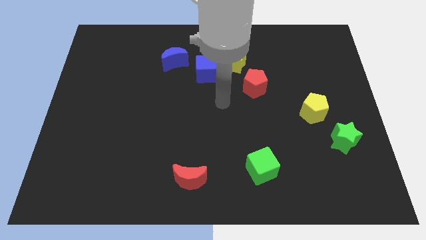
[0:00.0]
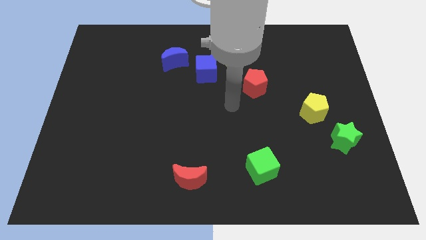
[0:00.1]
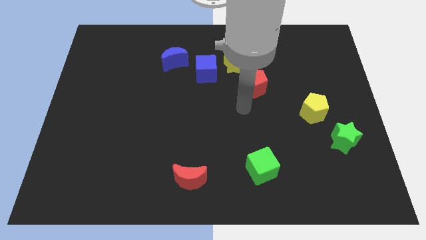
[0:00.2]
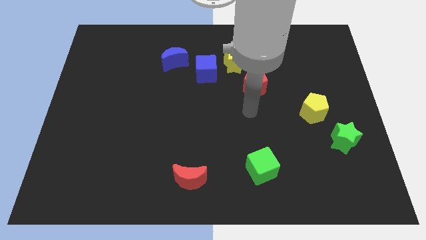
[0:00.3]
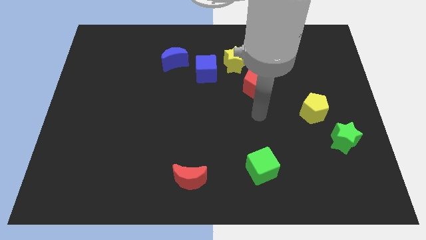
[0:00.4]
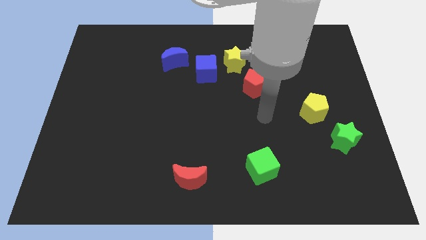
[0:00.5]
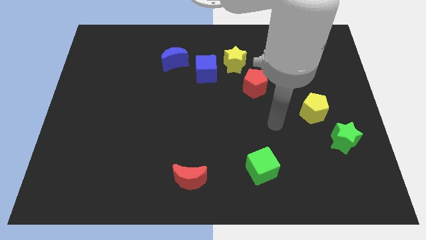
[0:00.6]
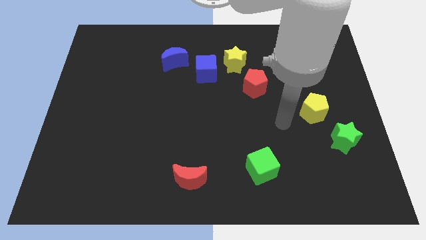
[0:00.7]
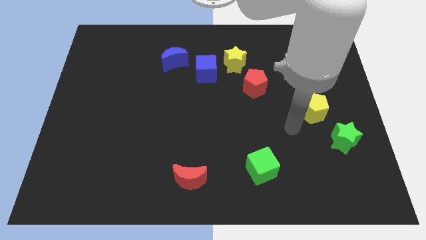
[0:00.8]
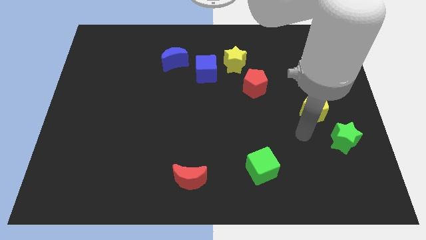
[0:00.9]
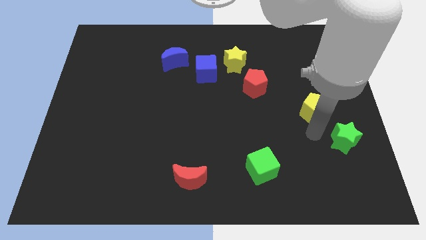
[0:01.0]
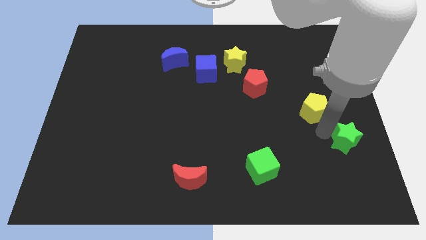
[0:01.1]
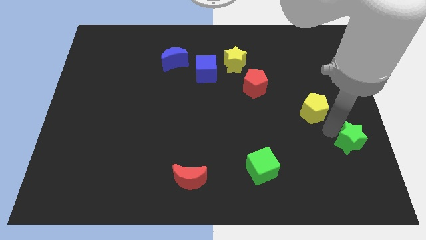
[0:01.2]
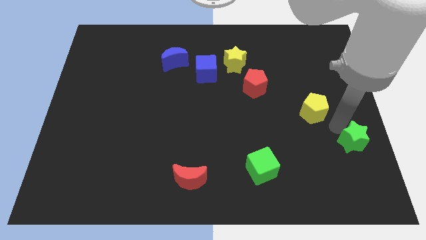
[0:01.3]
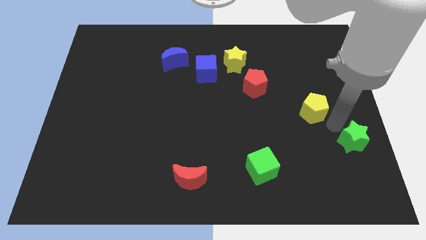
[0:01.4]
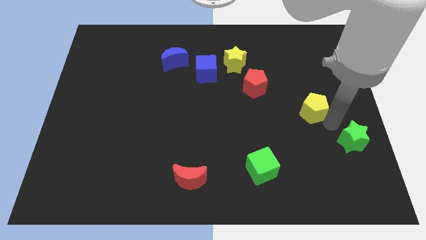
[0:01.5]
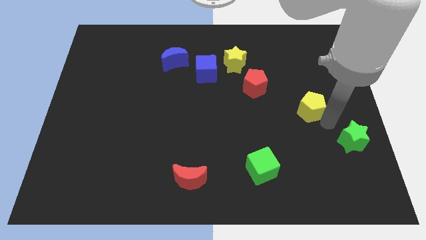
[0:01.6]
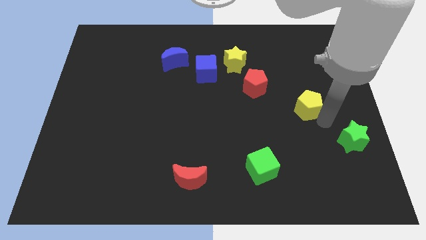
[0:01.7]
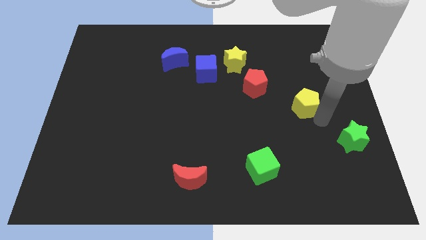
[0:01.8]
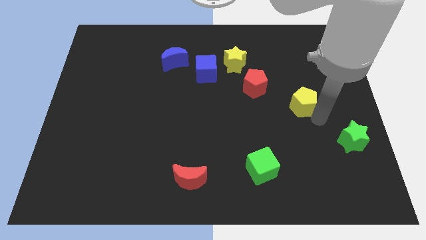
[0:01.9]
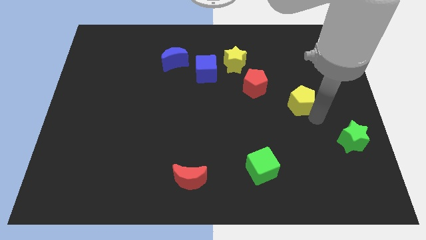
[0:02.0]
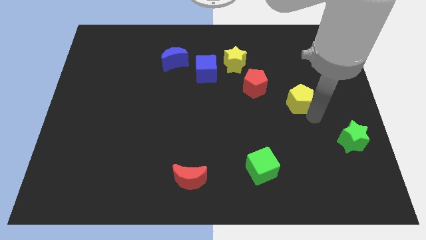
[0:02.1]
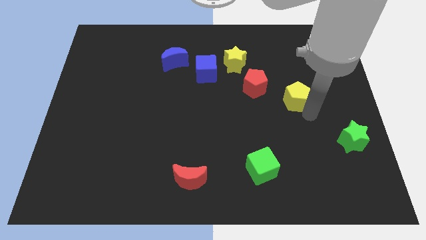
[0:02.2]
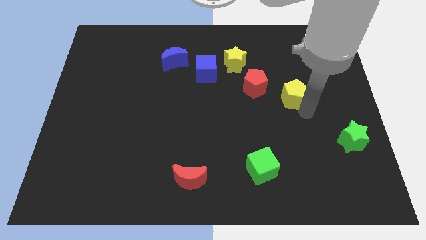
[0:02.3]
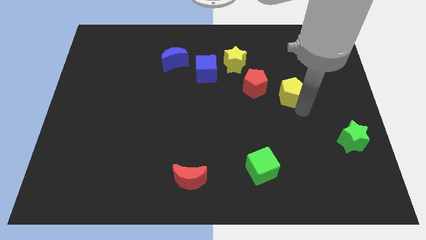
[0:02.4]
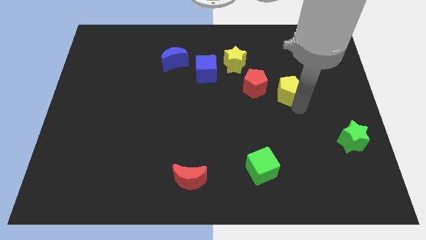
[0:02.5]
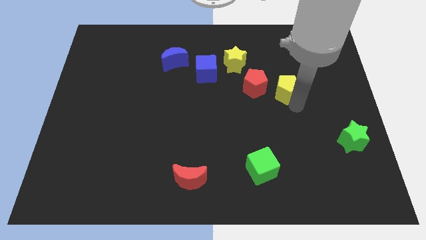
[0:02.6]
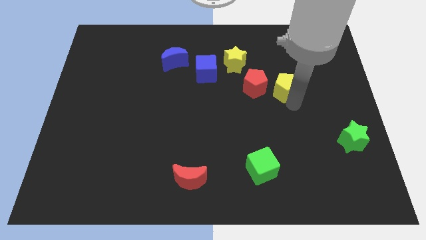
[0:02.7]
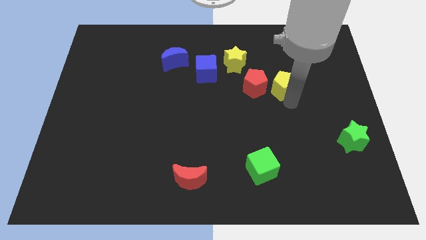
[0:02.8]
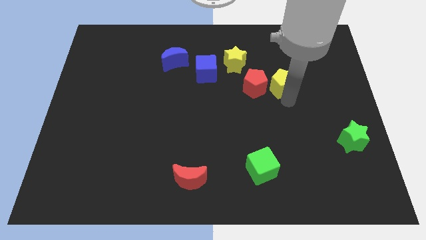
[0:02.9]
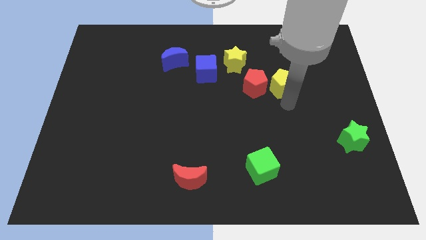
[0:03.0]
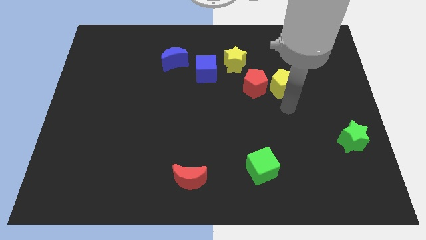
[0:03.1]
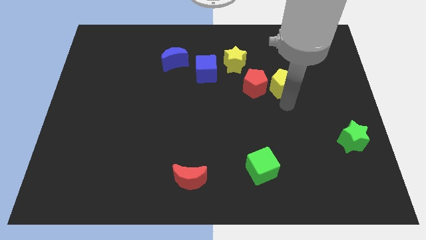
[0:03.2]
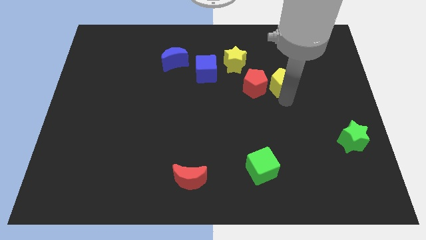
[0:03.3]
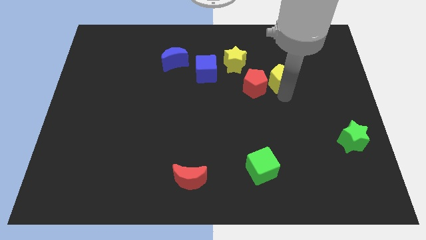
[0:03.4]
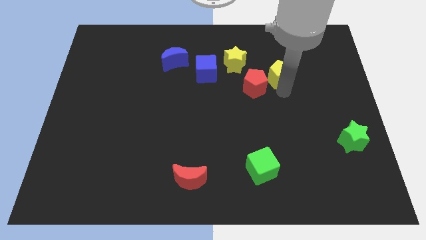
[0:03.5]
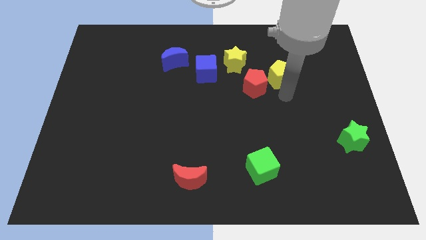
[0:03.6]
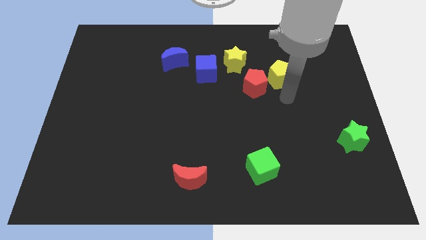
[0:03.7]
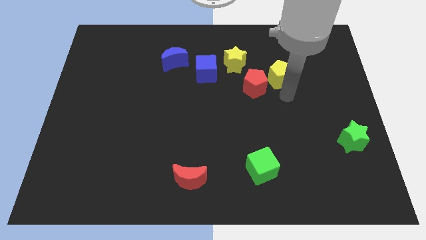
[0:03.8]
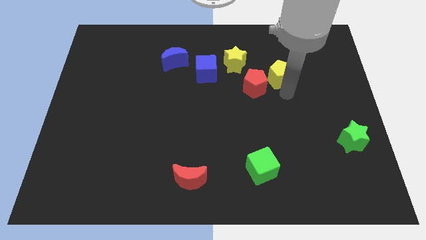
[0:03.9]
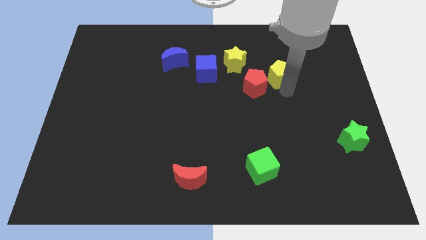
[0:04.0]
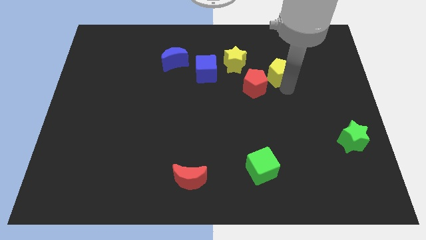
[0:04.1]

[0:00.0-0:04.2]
slide the yellow pentagon to the right side of the yellow star

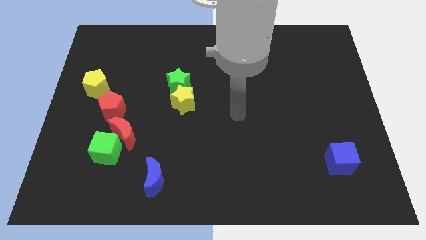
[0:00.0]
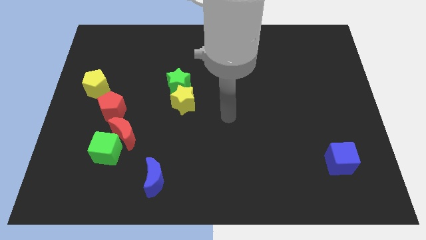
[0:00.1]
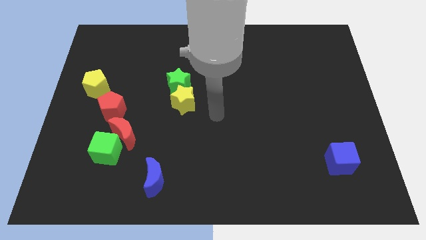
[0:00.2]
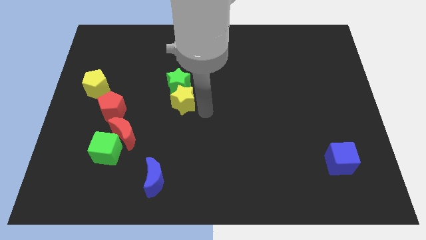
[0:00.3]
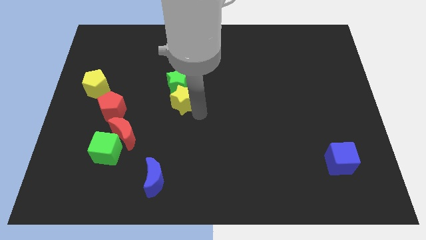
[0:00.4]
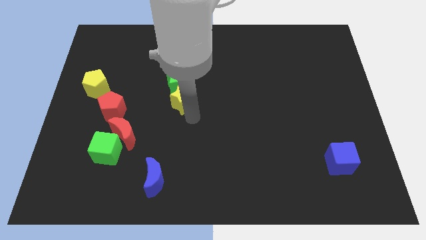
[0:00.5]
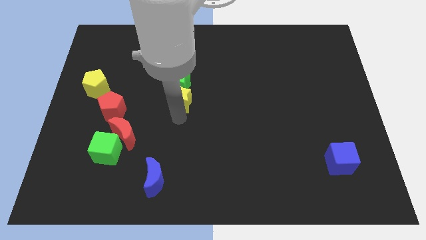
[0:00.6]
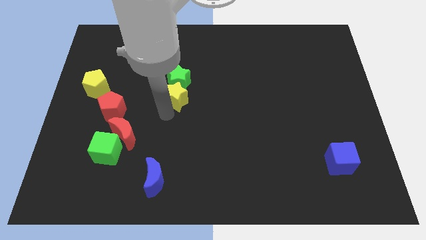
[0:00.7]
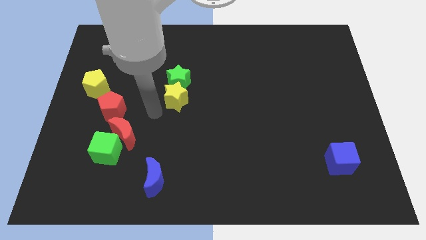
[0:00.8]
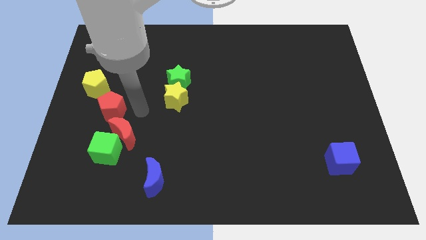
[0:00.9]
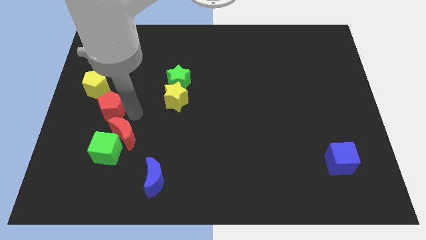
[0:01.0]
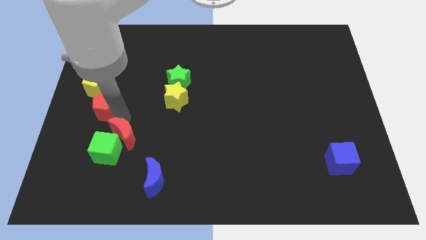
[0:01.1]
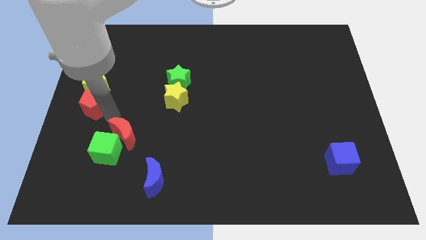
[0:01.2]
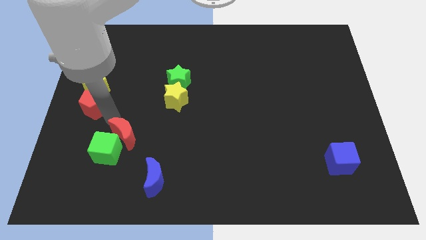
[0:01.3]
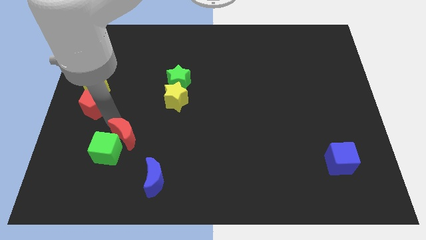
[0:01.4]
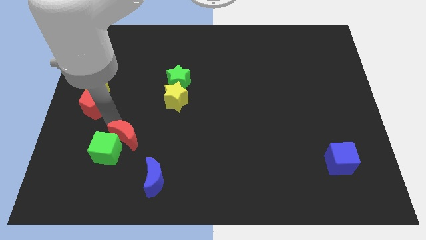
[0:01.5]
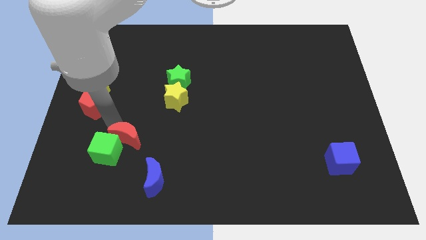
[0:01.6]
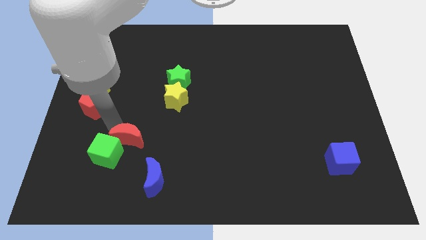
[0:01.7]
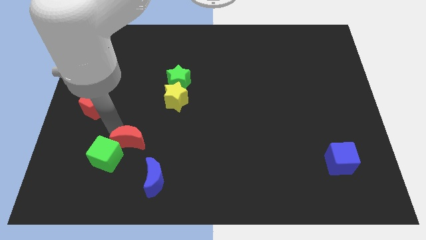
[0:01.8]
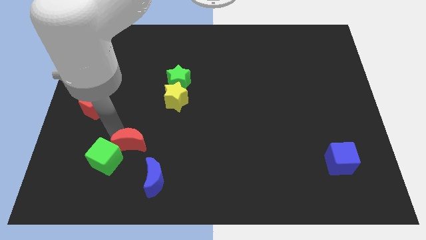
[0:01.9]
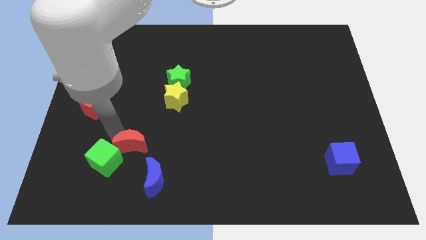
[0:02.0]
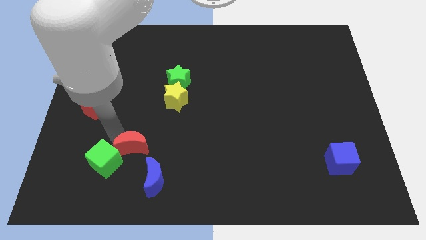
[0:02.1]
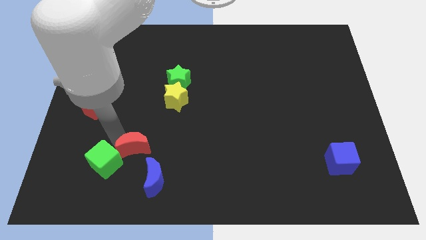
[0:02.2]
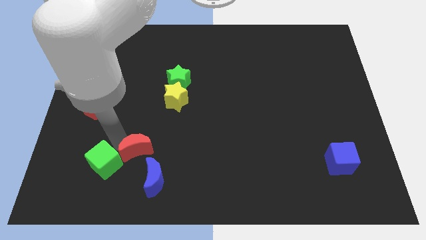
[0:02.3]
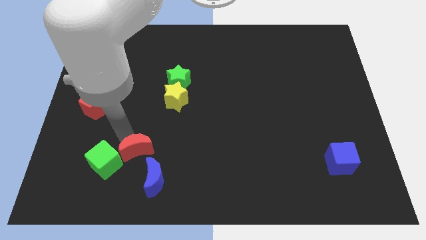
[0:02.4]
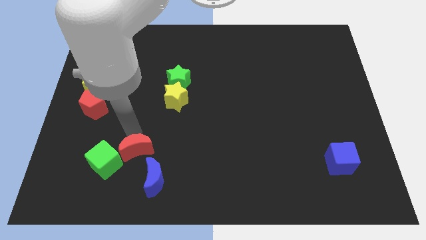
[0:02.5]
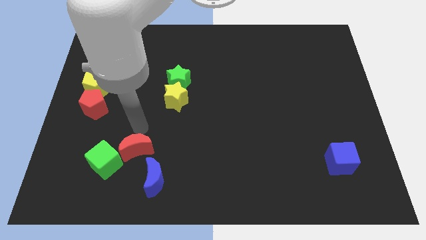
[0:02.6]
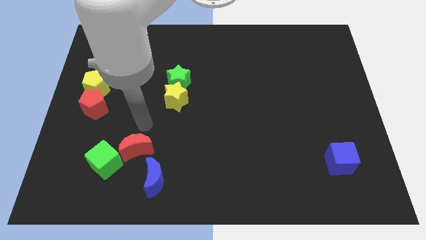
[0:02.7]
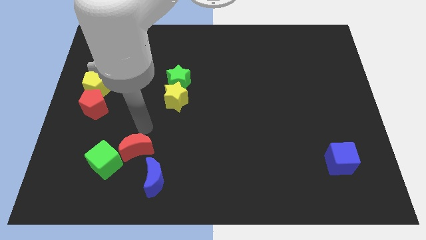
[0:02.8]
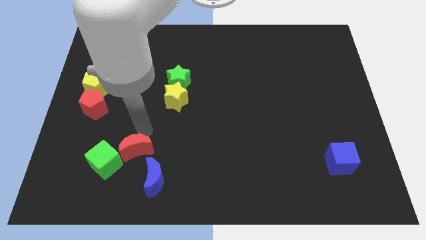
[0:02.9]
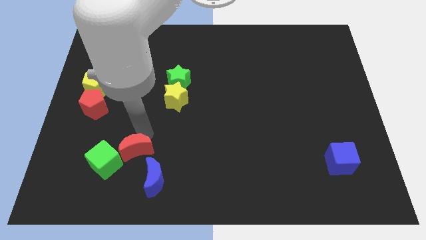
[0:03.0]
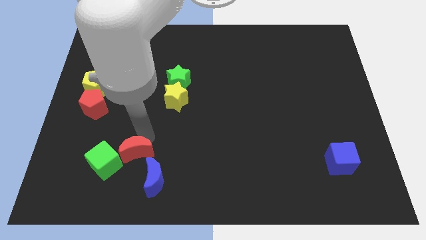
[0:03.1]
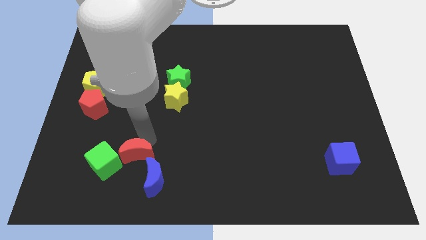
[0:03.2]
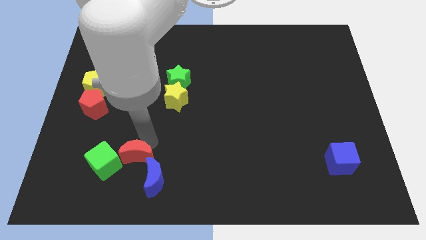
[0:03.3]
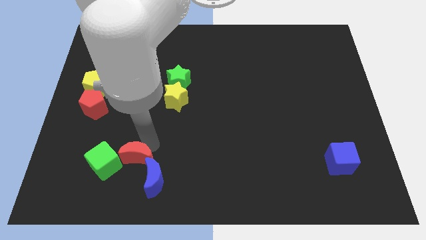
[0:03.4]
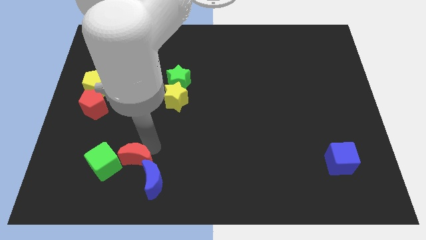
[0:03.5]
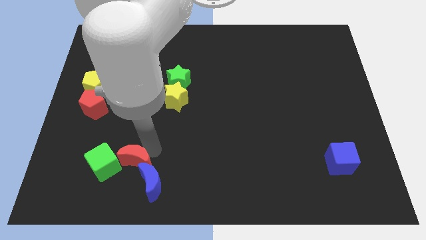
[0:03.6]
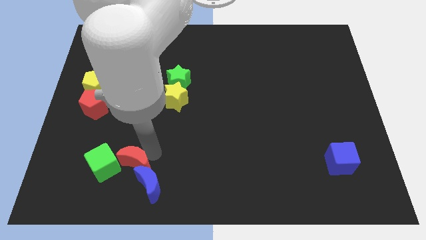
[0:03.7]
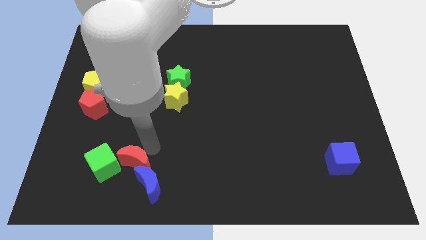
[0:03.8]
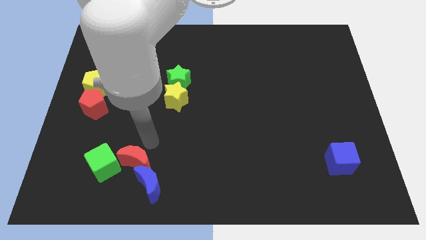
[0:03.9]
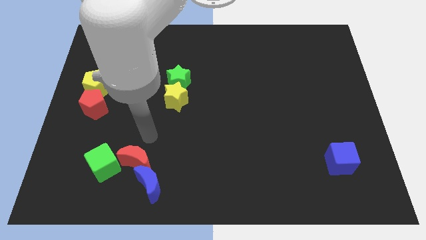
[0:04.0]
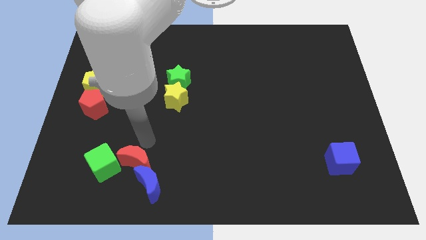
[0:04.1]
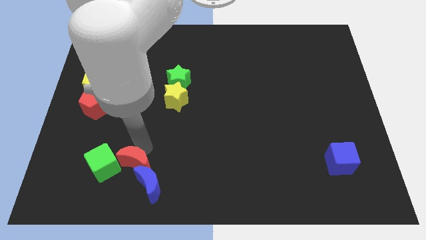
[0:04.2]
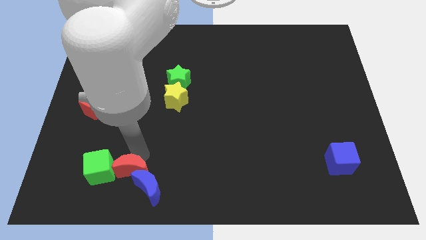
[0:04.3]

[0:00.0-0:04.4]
move the red moon diagonally down and to the right of the green cube
